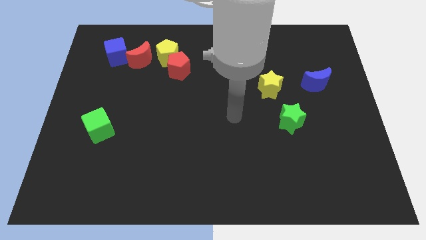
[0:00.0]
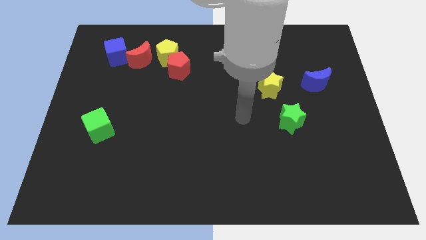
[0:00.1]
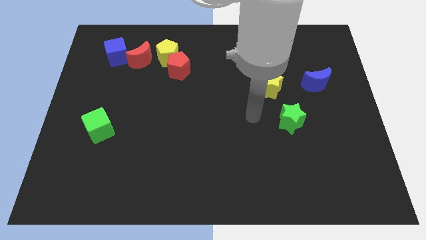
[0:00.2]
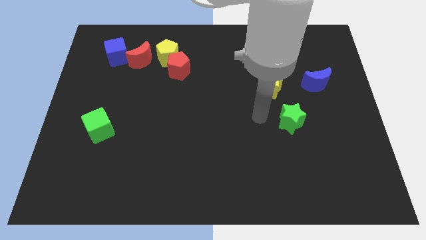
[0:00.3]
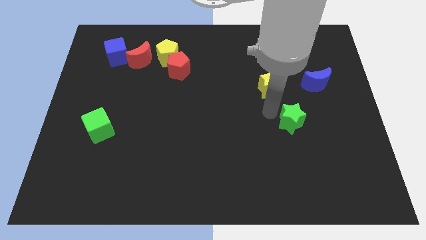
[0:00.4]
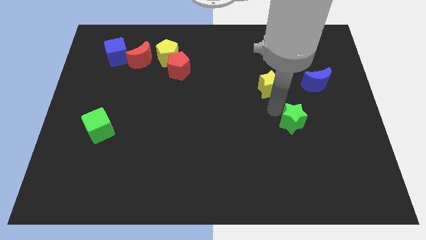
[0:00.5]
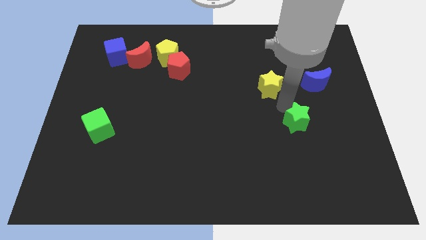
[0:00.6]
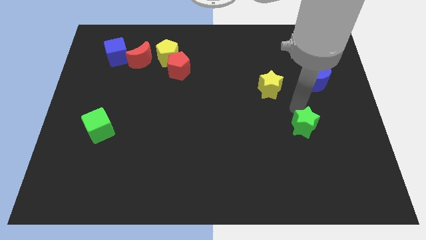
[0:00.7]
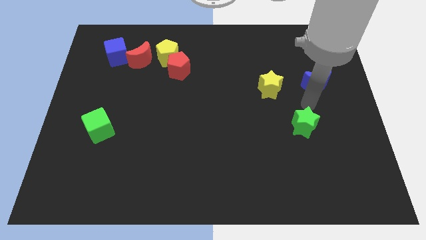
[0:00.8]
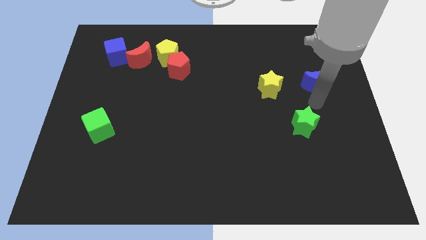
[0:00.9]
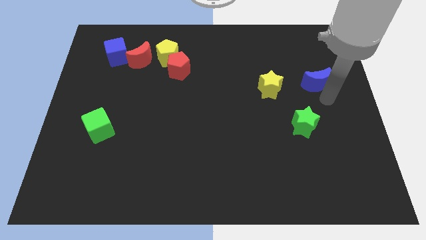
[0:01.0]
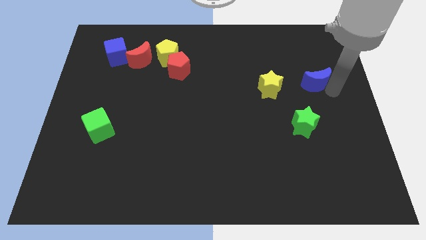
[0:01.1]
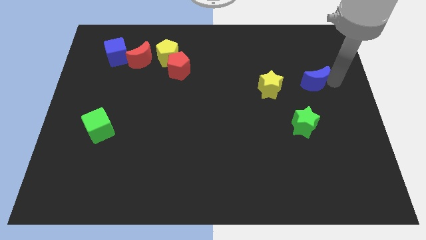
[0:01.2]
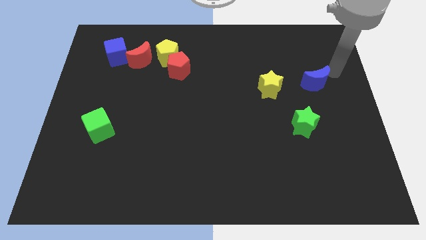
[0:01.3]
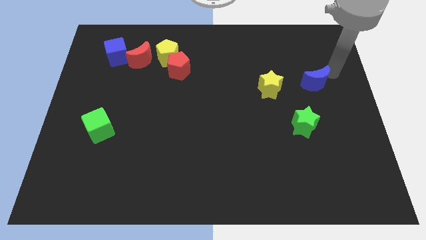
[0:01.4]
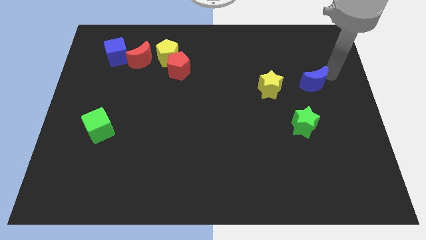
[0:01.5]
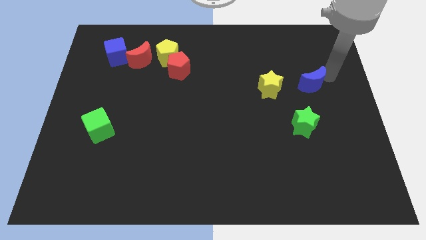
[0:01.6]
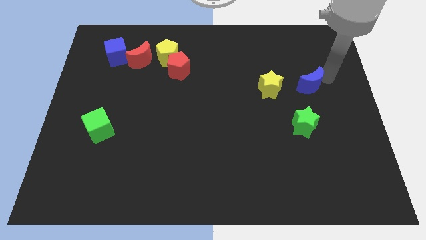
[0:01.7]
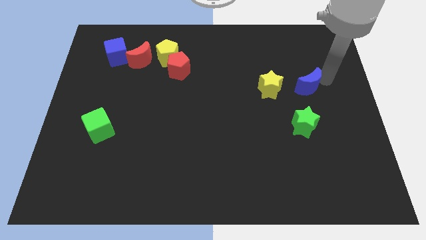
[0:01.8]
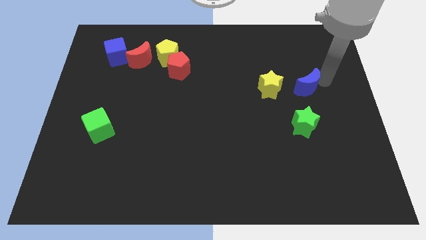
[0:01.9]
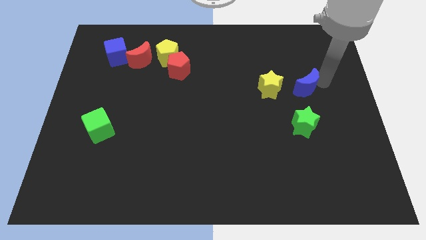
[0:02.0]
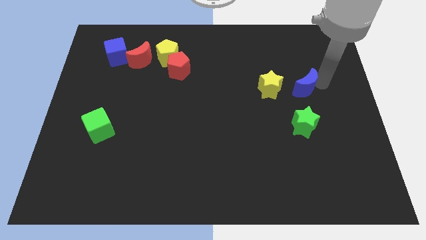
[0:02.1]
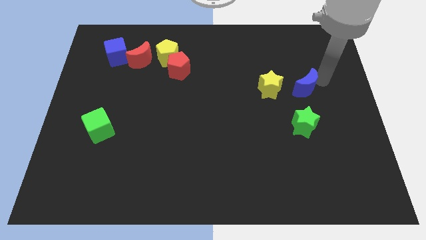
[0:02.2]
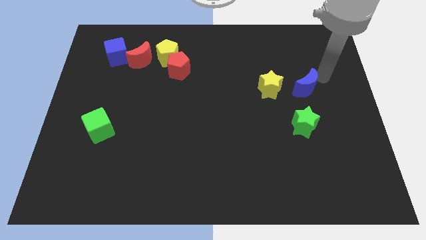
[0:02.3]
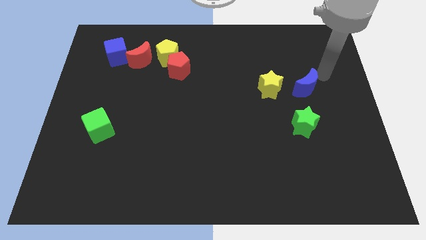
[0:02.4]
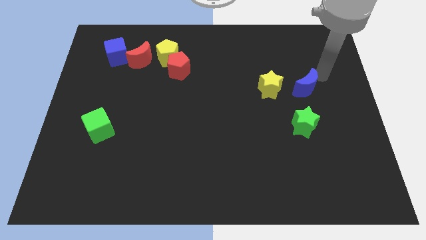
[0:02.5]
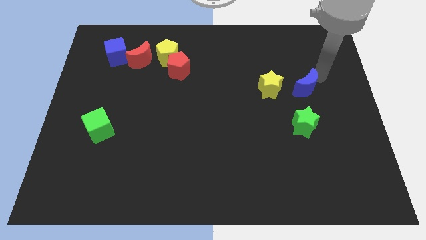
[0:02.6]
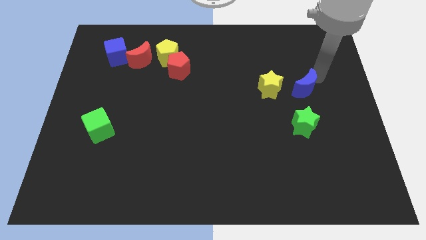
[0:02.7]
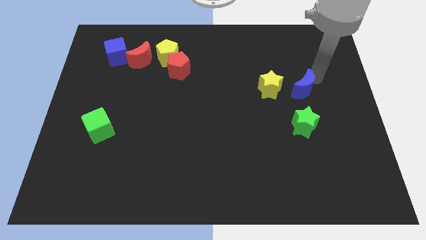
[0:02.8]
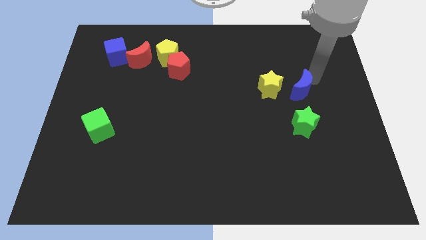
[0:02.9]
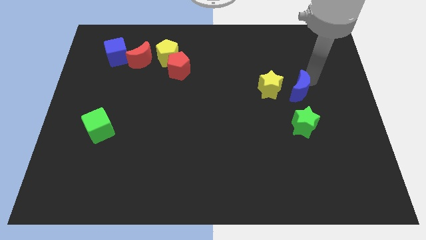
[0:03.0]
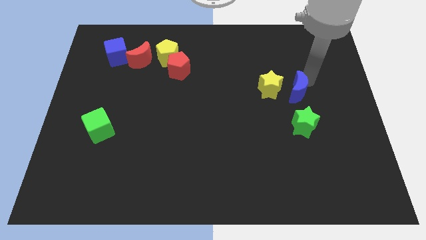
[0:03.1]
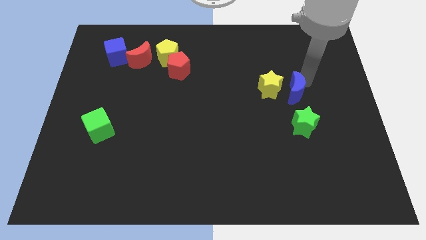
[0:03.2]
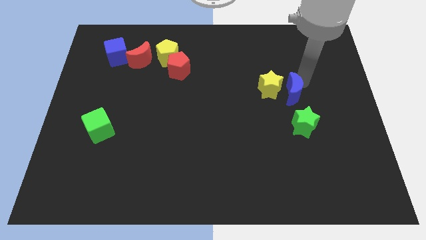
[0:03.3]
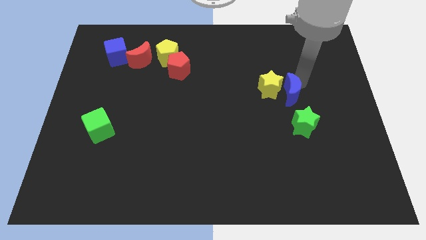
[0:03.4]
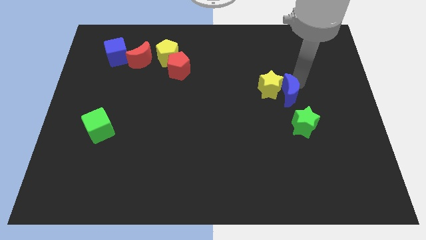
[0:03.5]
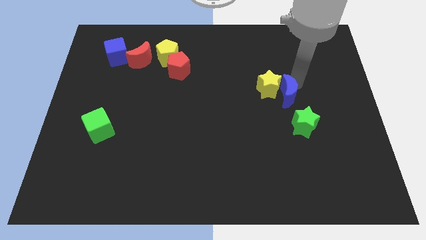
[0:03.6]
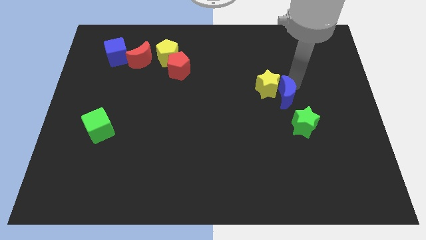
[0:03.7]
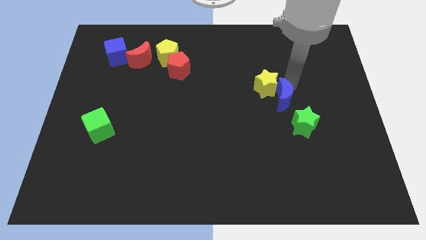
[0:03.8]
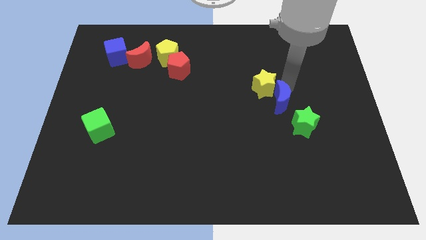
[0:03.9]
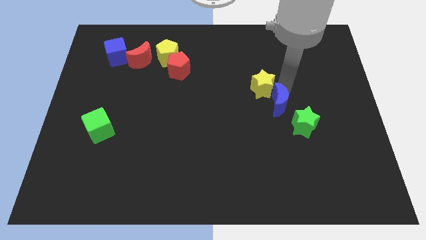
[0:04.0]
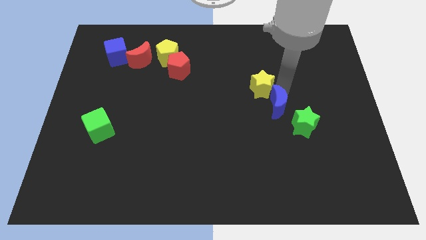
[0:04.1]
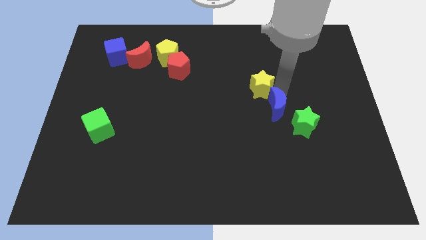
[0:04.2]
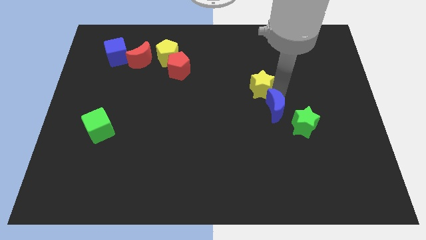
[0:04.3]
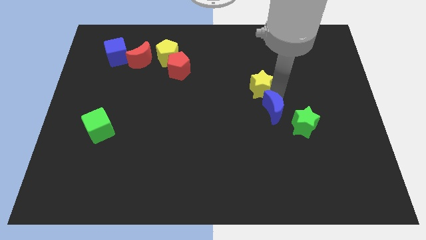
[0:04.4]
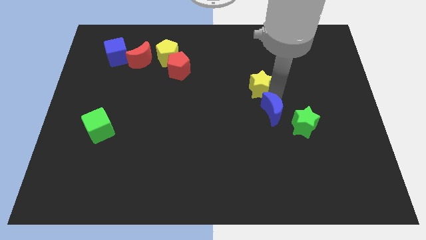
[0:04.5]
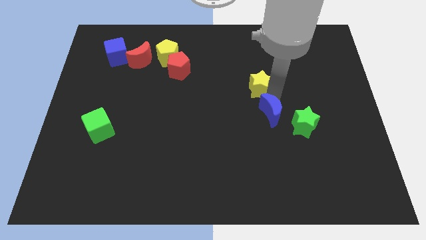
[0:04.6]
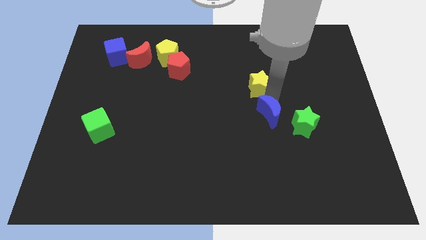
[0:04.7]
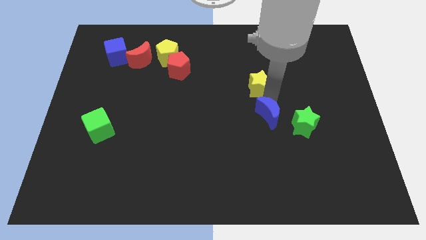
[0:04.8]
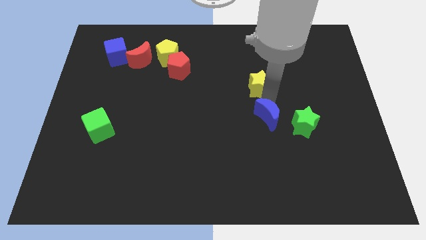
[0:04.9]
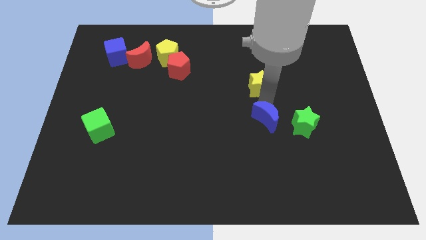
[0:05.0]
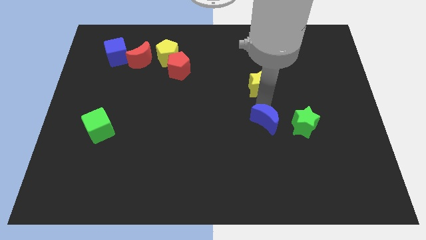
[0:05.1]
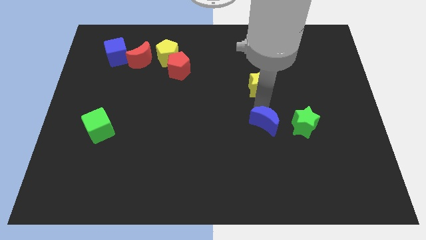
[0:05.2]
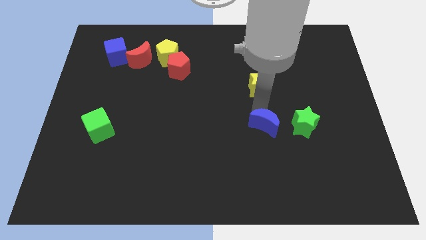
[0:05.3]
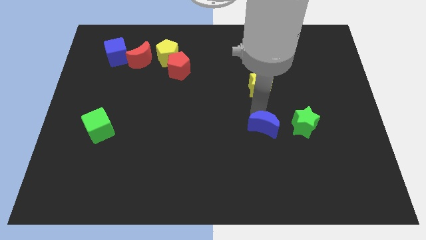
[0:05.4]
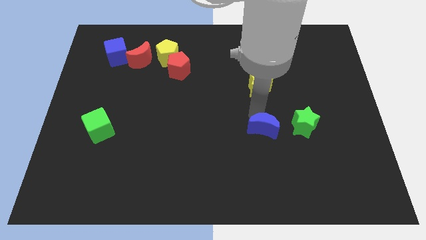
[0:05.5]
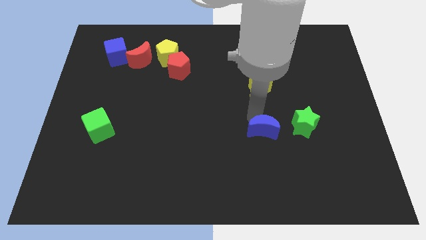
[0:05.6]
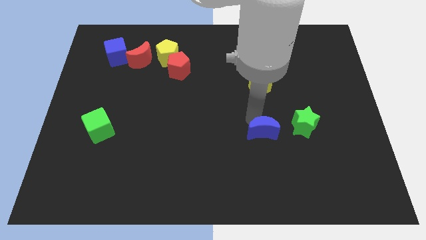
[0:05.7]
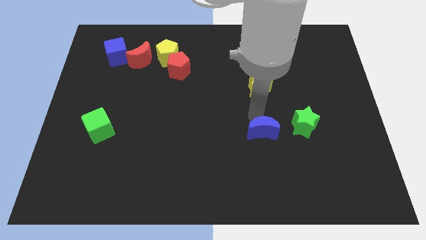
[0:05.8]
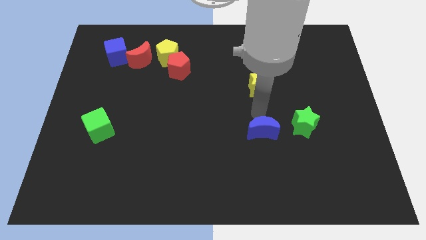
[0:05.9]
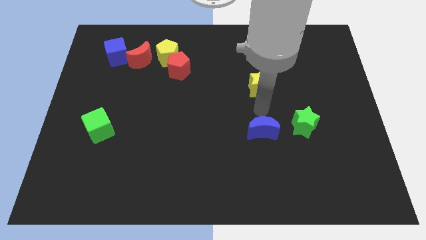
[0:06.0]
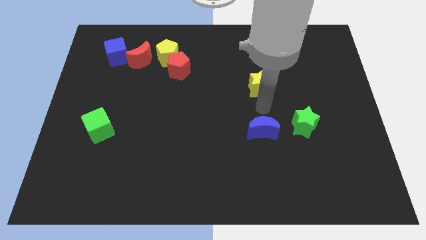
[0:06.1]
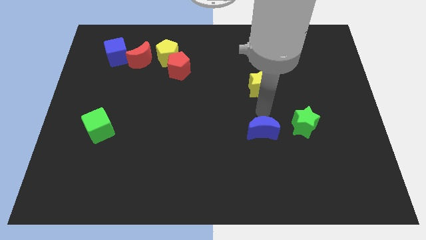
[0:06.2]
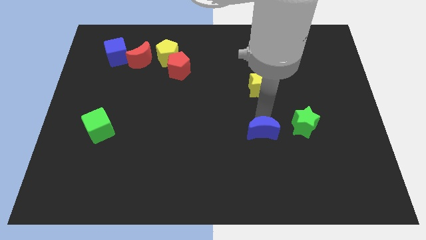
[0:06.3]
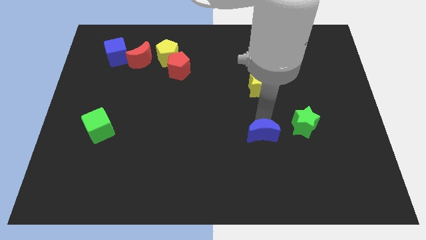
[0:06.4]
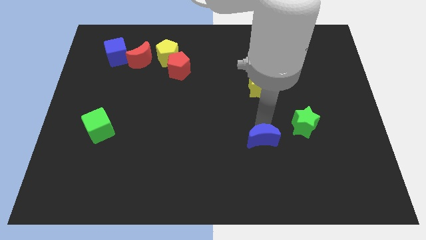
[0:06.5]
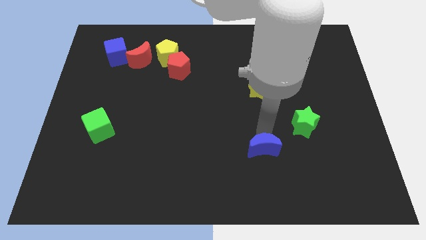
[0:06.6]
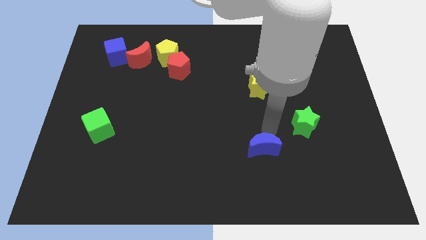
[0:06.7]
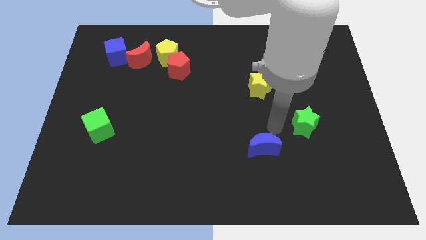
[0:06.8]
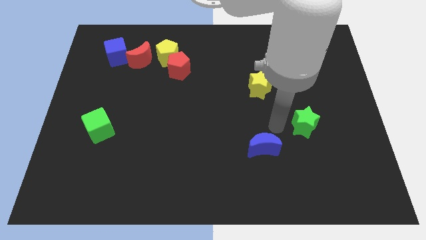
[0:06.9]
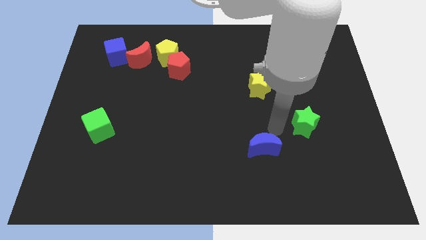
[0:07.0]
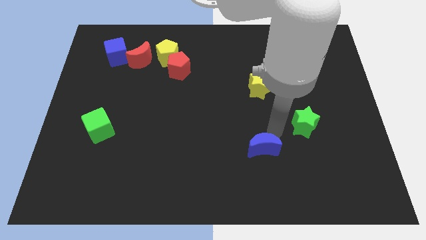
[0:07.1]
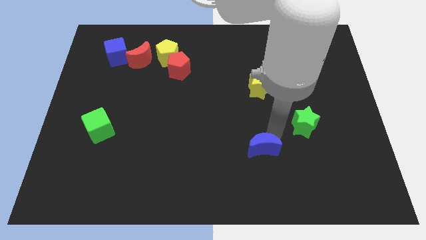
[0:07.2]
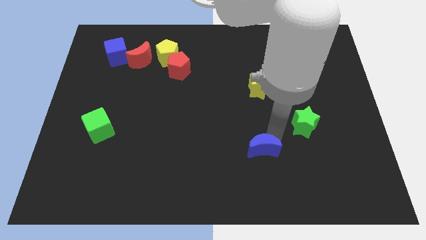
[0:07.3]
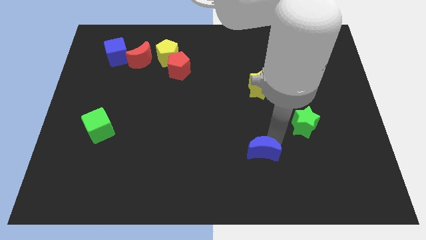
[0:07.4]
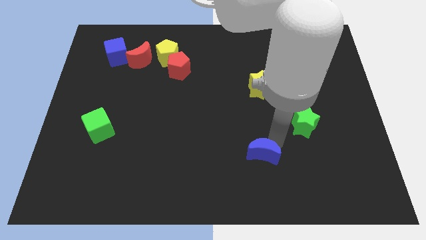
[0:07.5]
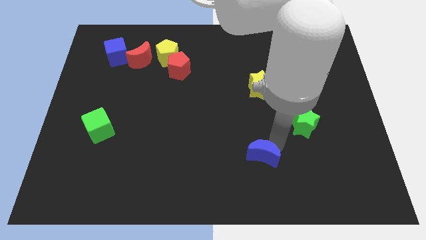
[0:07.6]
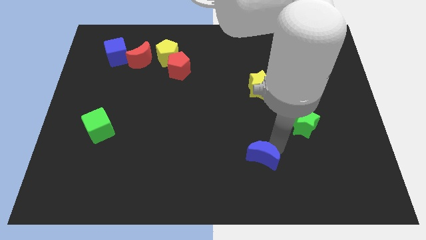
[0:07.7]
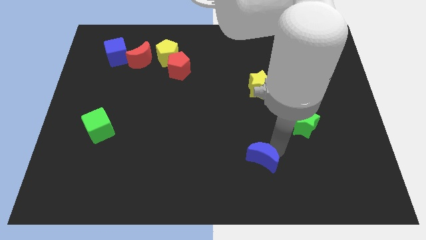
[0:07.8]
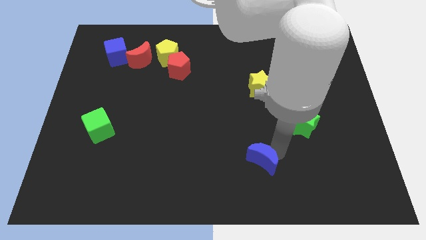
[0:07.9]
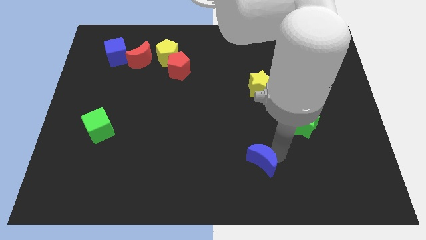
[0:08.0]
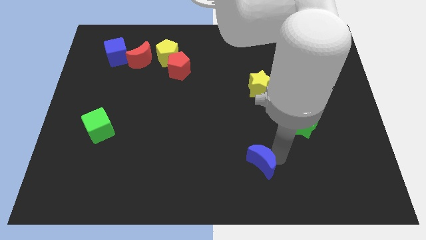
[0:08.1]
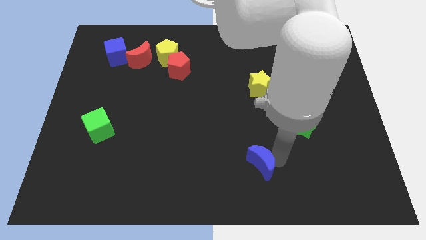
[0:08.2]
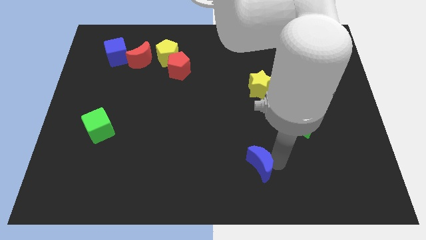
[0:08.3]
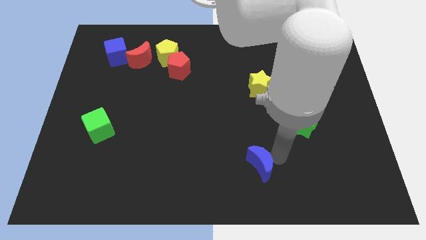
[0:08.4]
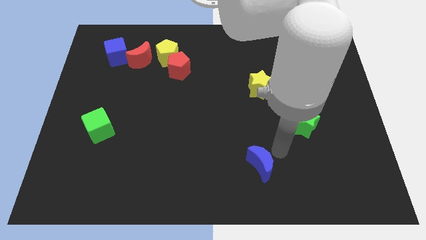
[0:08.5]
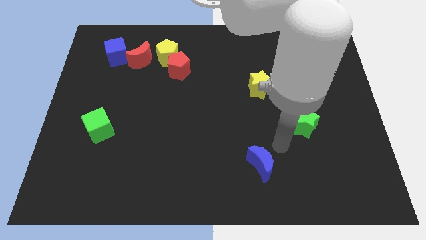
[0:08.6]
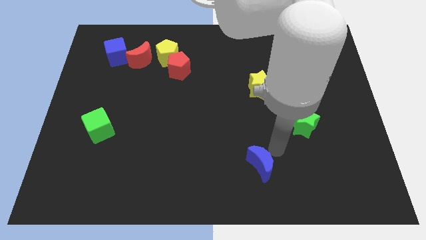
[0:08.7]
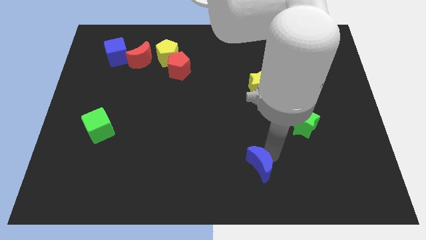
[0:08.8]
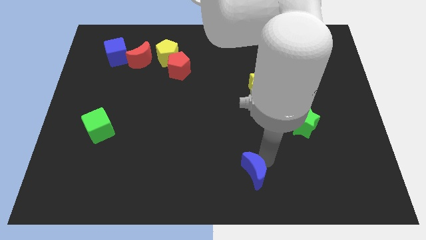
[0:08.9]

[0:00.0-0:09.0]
move the blue moon to the bottom
